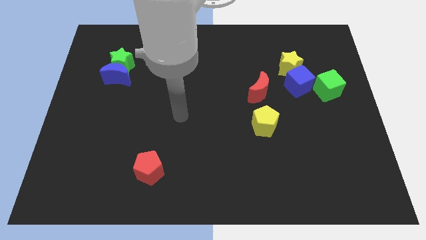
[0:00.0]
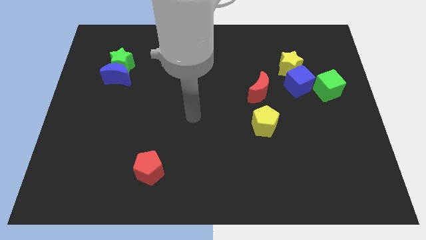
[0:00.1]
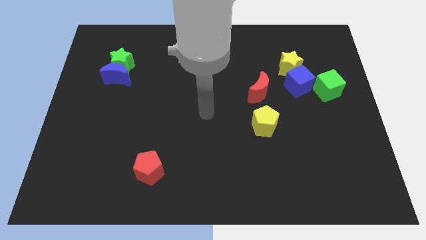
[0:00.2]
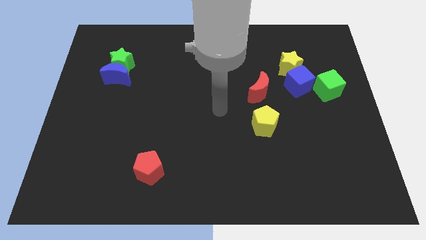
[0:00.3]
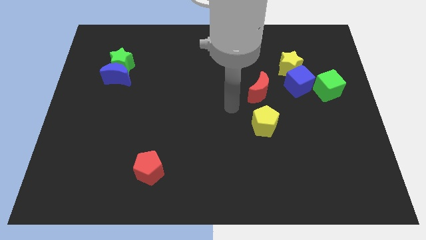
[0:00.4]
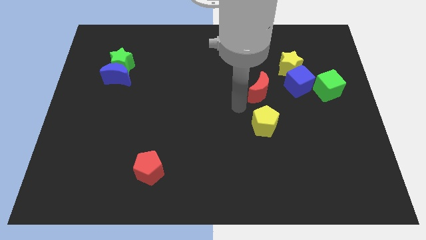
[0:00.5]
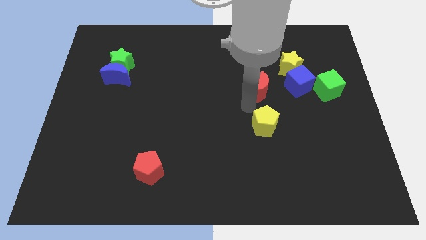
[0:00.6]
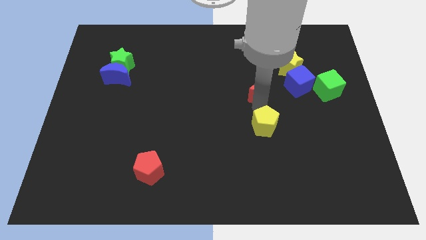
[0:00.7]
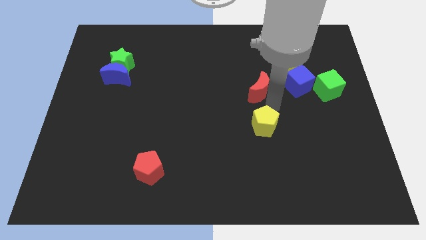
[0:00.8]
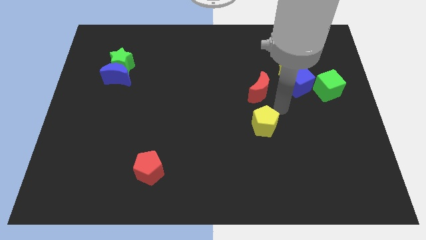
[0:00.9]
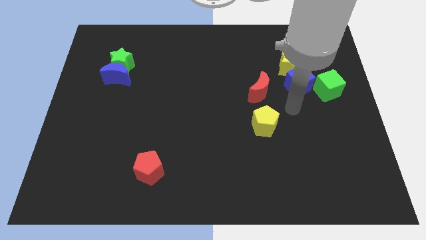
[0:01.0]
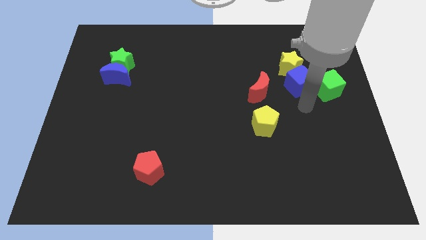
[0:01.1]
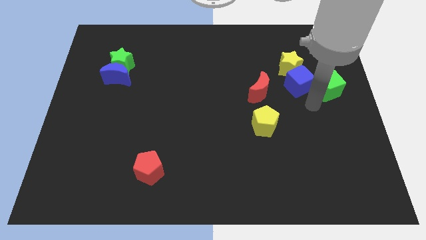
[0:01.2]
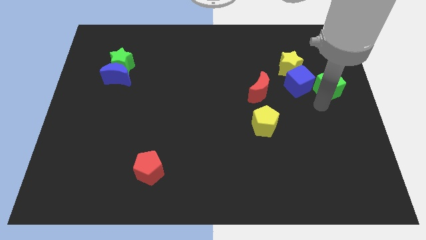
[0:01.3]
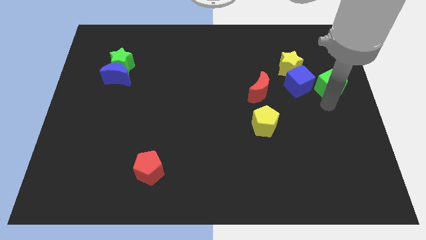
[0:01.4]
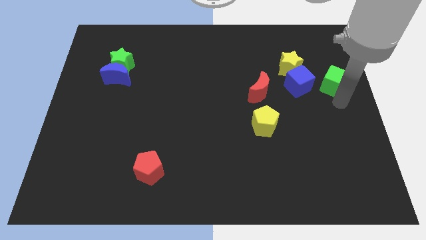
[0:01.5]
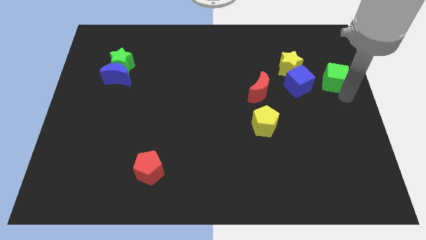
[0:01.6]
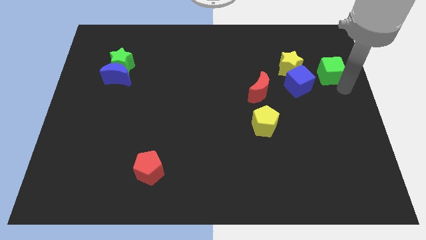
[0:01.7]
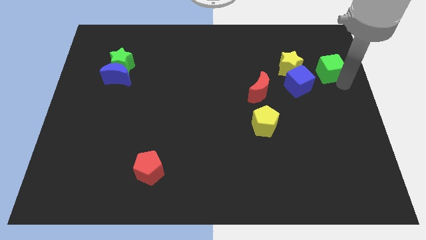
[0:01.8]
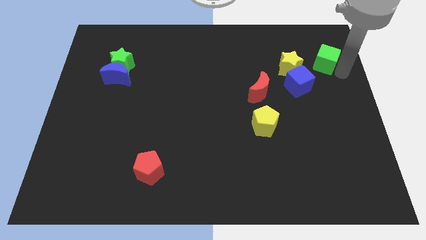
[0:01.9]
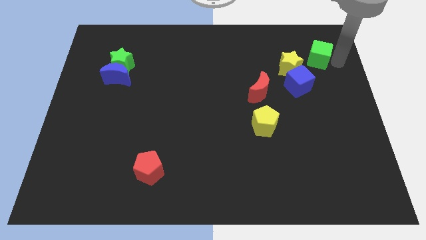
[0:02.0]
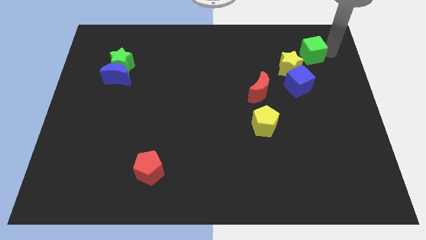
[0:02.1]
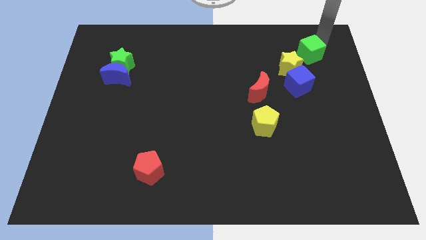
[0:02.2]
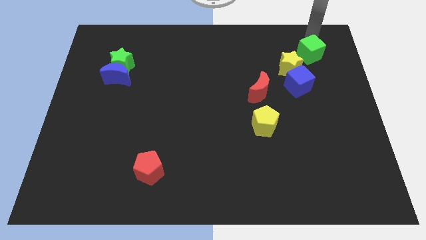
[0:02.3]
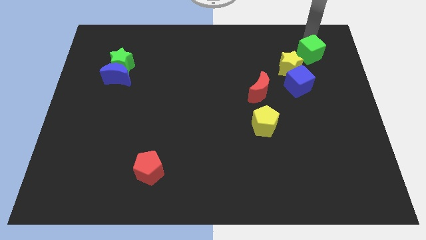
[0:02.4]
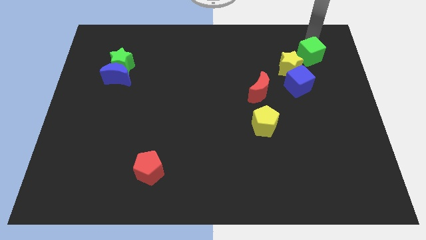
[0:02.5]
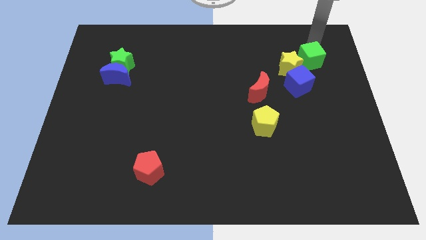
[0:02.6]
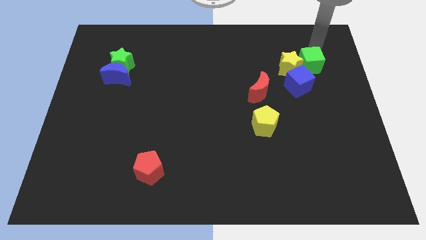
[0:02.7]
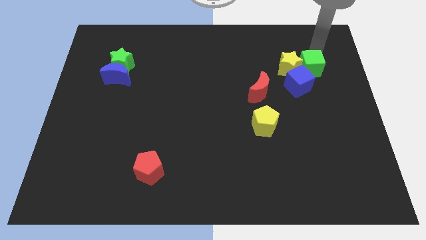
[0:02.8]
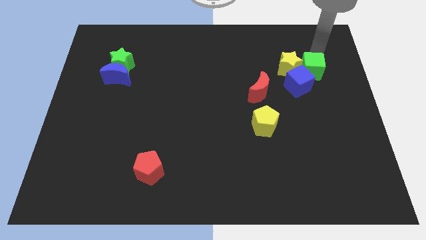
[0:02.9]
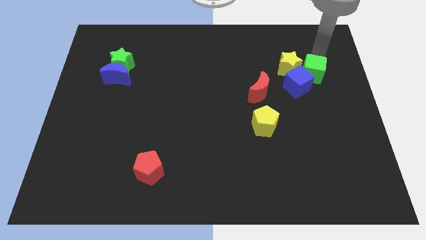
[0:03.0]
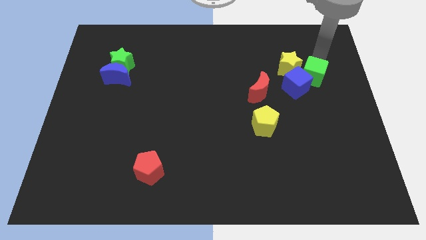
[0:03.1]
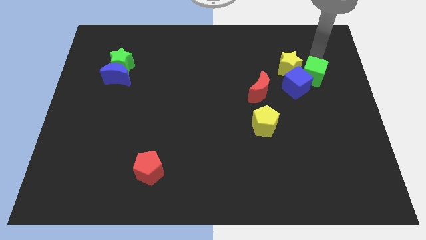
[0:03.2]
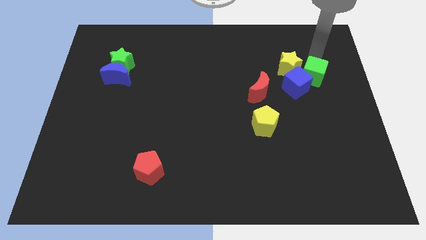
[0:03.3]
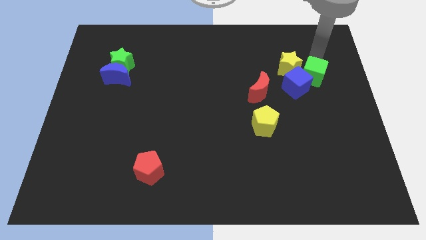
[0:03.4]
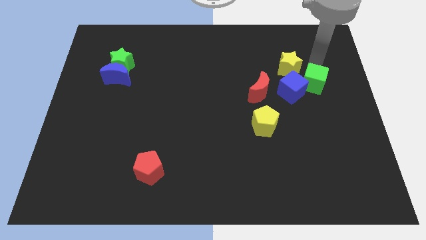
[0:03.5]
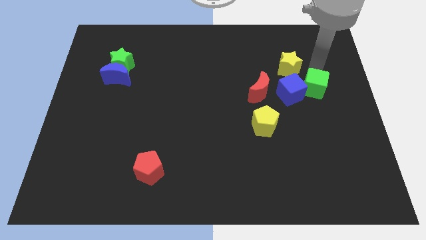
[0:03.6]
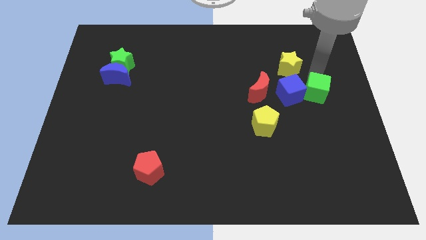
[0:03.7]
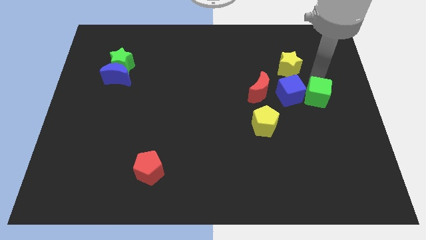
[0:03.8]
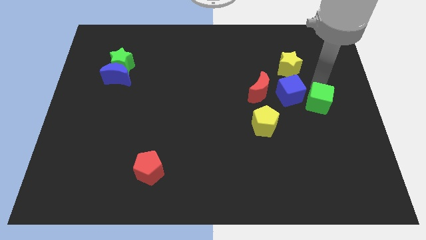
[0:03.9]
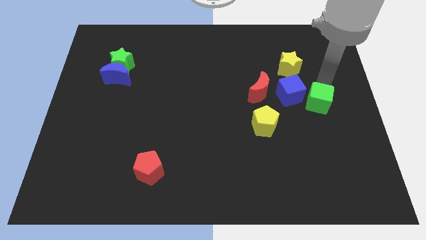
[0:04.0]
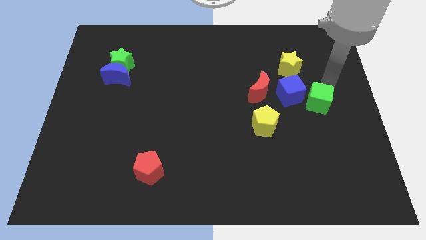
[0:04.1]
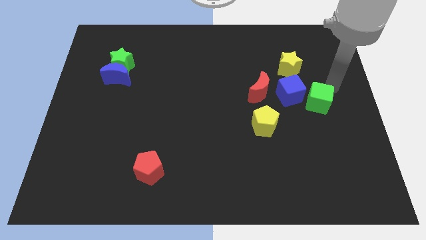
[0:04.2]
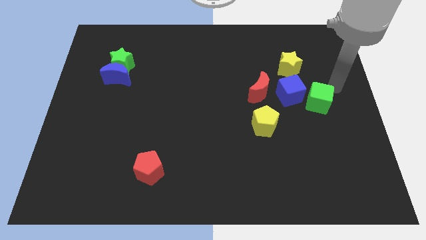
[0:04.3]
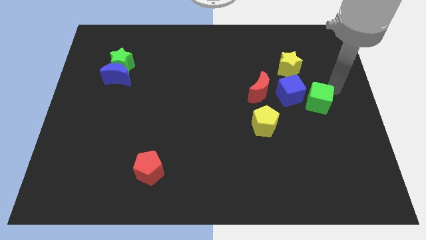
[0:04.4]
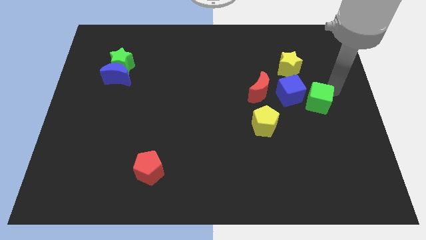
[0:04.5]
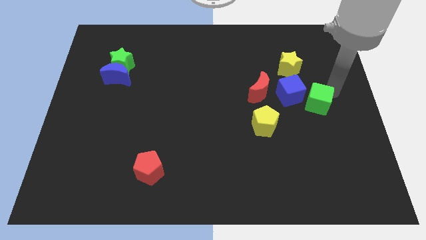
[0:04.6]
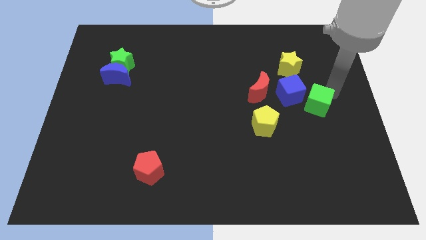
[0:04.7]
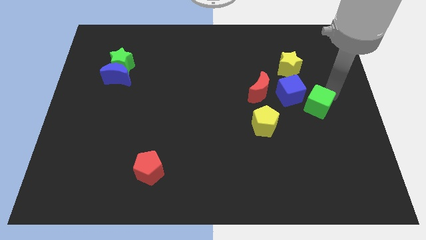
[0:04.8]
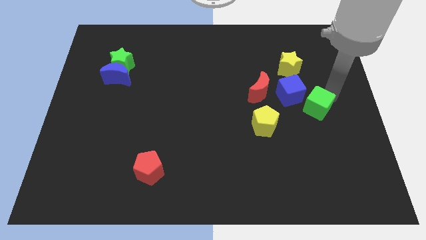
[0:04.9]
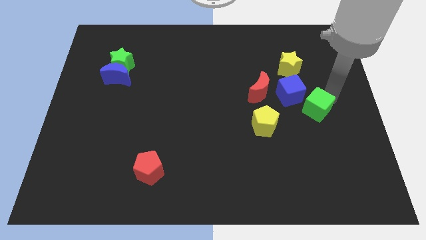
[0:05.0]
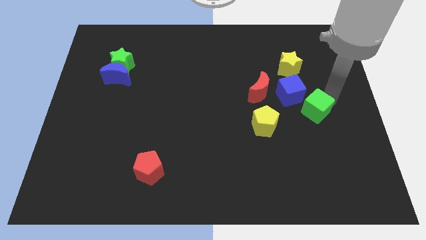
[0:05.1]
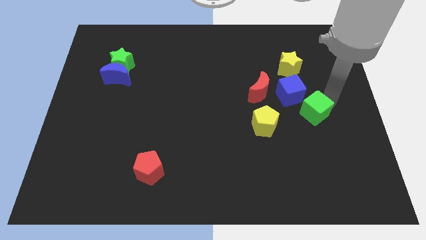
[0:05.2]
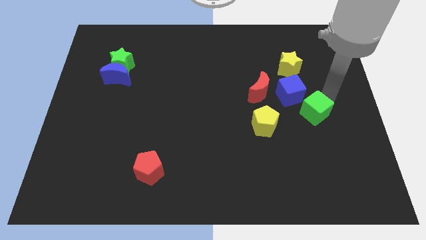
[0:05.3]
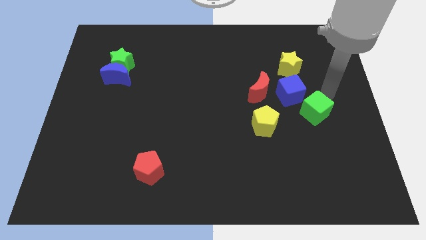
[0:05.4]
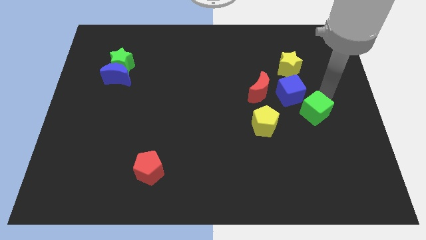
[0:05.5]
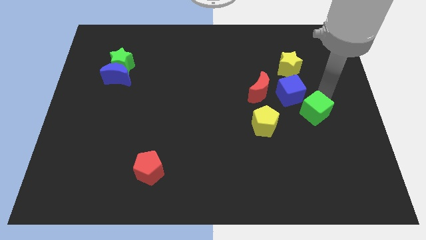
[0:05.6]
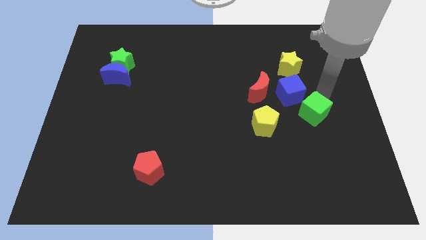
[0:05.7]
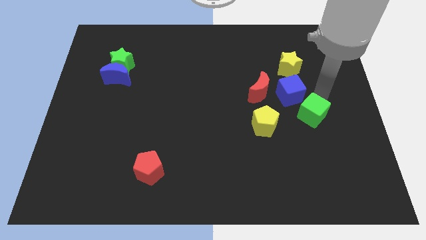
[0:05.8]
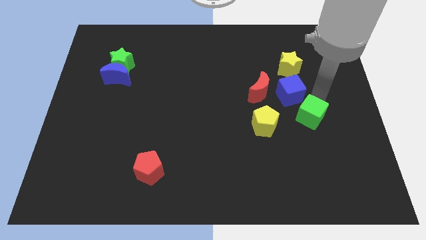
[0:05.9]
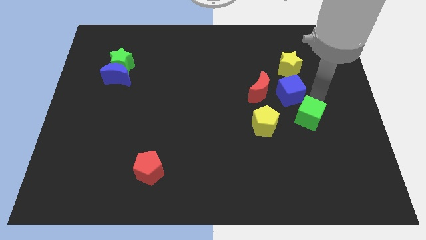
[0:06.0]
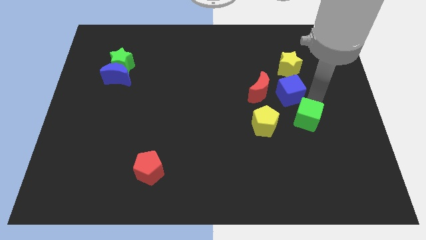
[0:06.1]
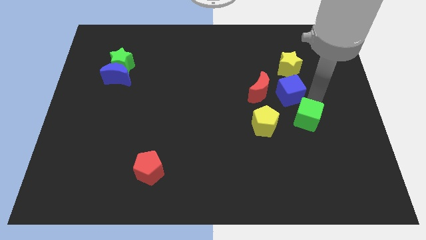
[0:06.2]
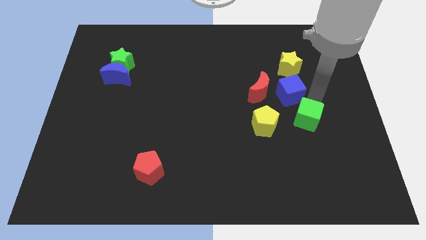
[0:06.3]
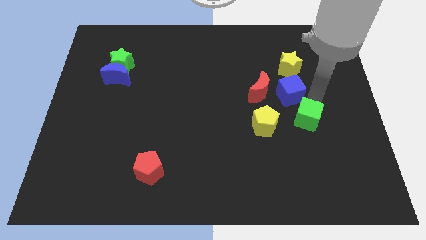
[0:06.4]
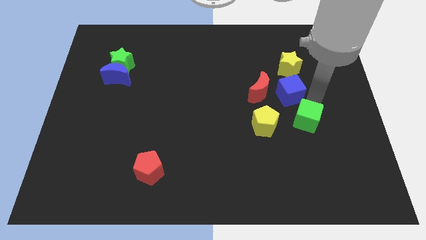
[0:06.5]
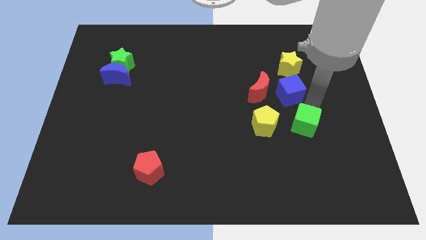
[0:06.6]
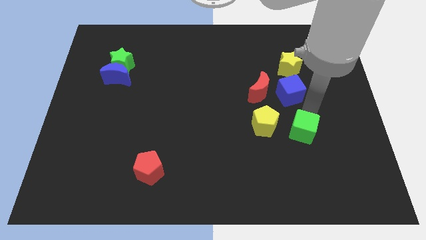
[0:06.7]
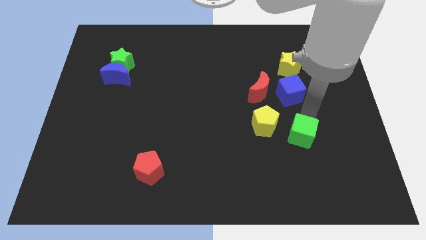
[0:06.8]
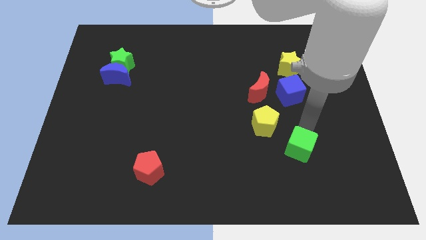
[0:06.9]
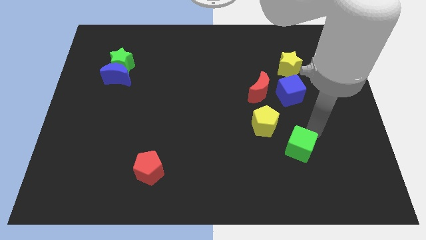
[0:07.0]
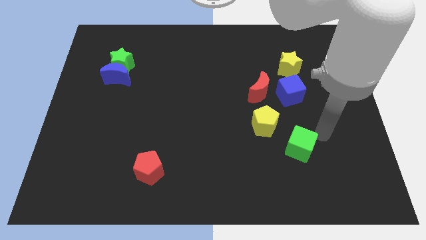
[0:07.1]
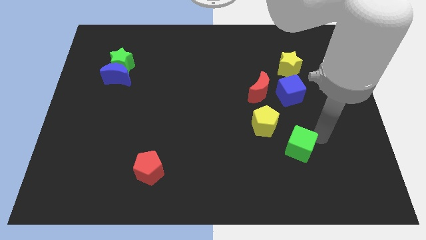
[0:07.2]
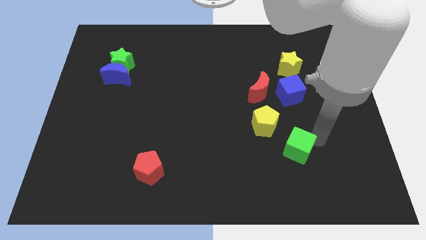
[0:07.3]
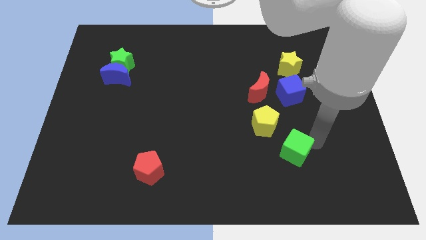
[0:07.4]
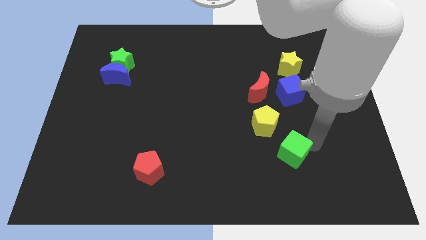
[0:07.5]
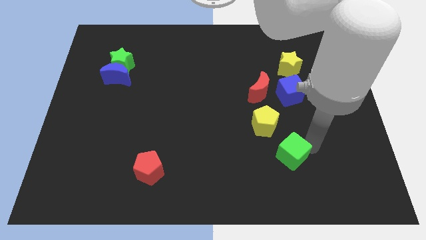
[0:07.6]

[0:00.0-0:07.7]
push the green cube down and then left

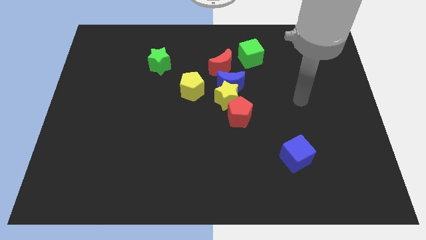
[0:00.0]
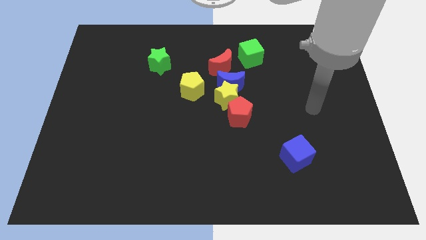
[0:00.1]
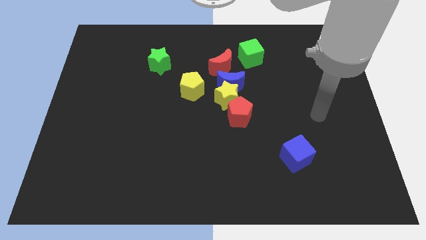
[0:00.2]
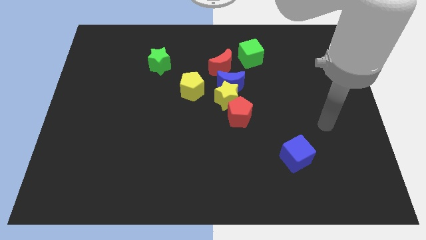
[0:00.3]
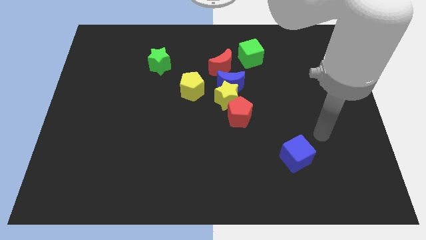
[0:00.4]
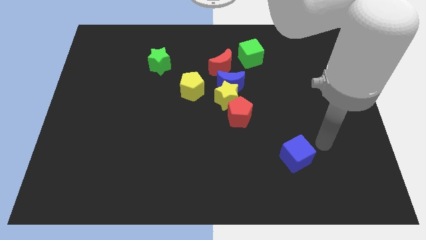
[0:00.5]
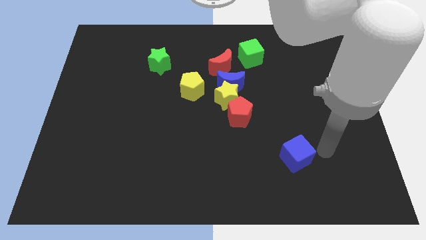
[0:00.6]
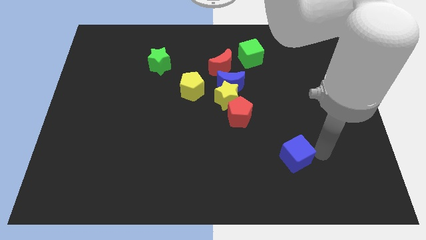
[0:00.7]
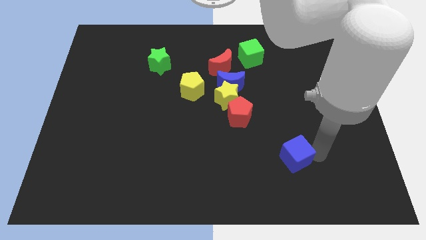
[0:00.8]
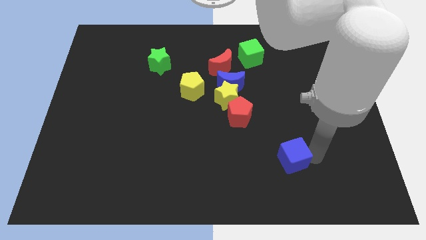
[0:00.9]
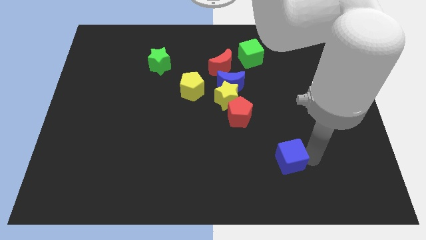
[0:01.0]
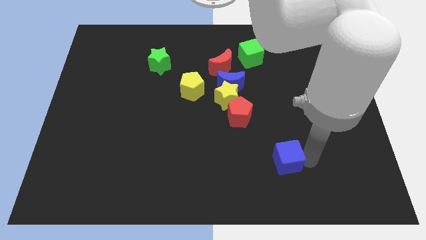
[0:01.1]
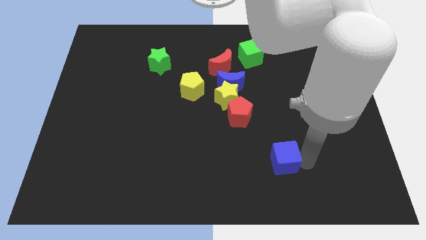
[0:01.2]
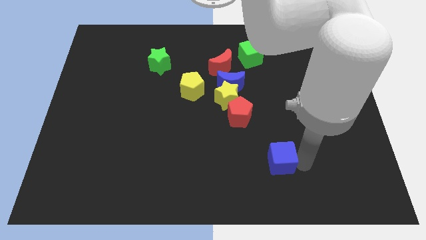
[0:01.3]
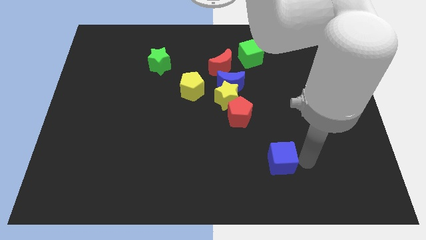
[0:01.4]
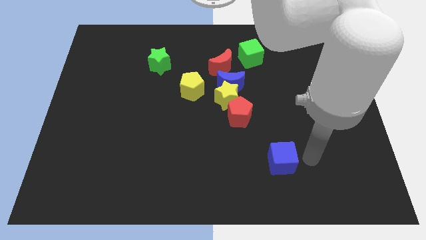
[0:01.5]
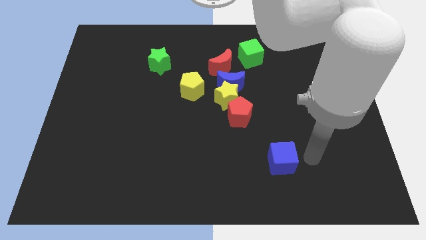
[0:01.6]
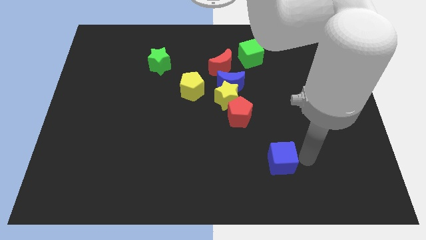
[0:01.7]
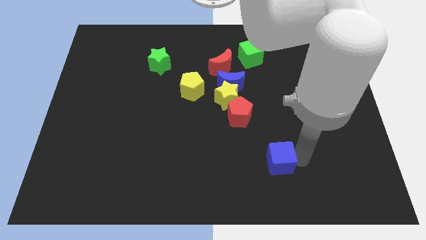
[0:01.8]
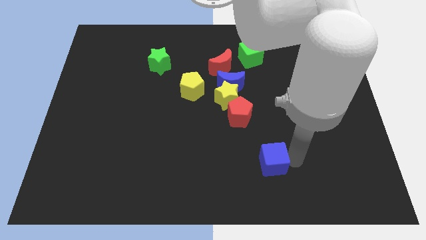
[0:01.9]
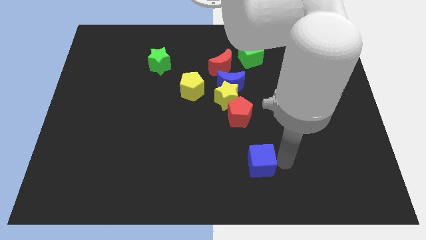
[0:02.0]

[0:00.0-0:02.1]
push the blue cube a little bit left
